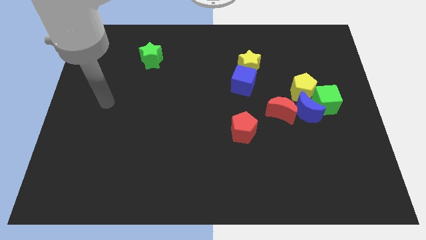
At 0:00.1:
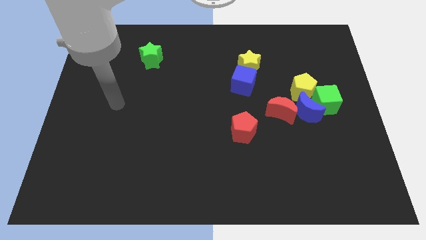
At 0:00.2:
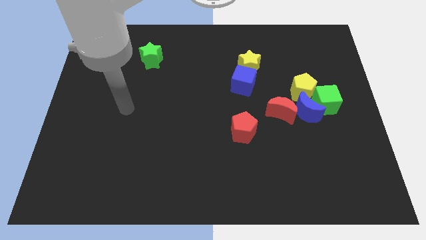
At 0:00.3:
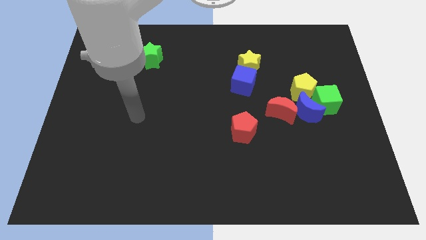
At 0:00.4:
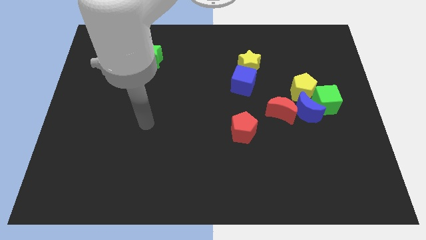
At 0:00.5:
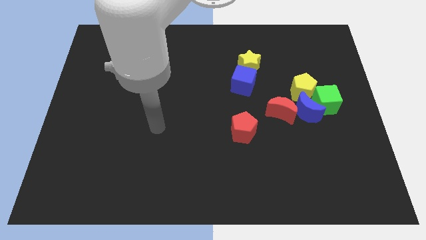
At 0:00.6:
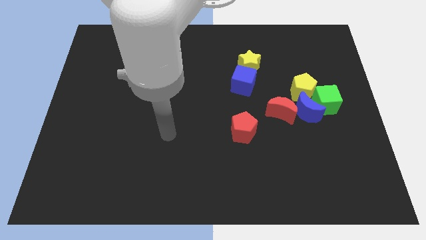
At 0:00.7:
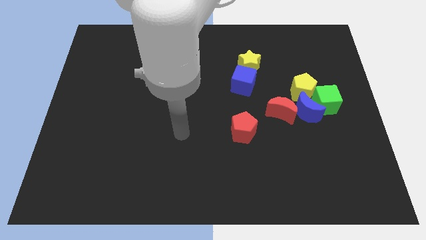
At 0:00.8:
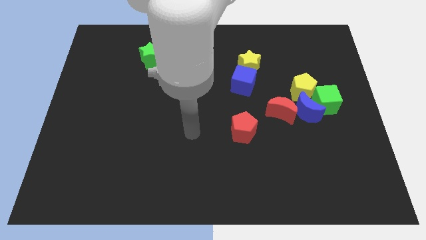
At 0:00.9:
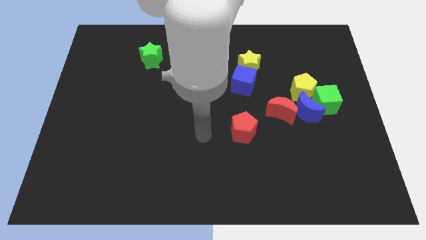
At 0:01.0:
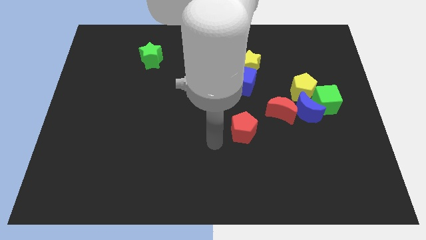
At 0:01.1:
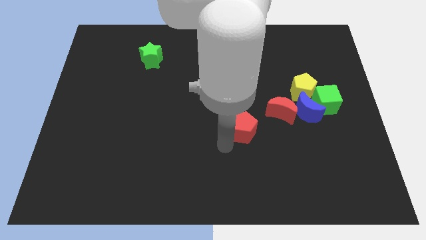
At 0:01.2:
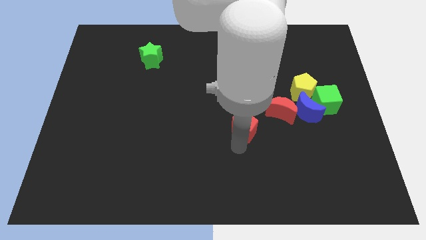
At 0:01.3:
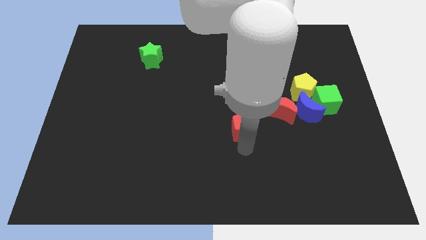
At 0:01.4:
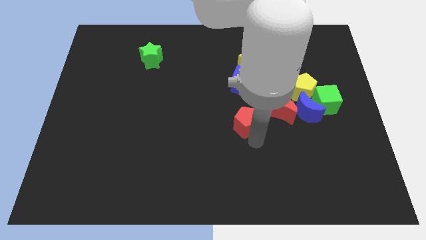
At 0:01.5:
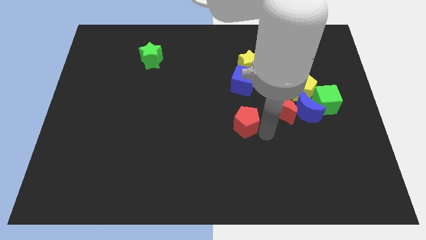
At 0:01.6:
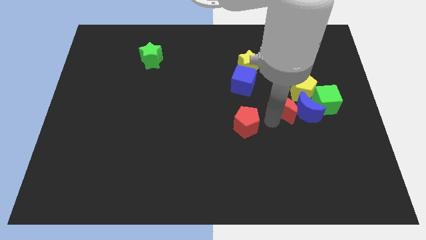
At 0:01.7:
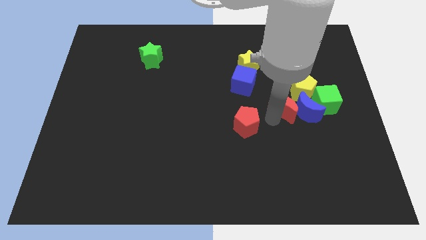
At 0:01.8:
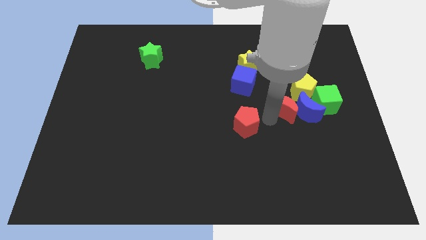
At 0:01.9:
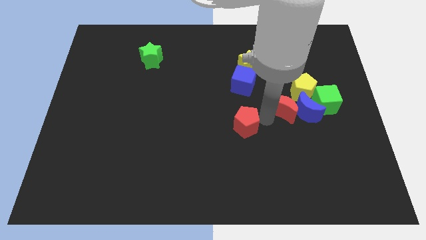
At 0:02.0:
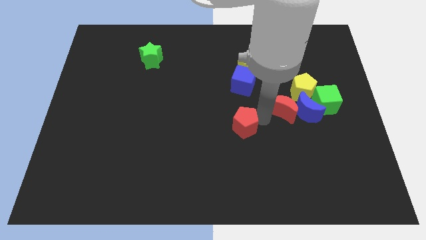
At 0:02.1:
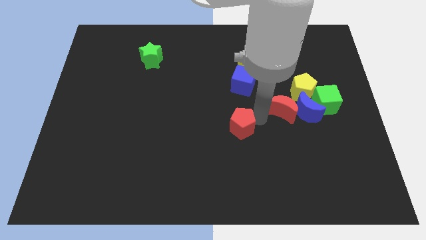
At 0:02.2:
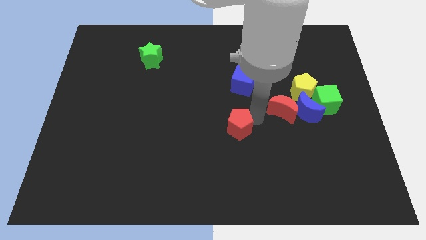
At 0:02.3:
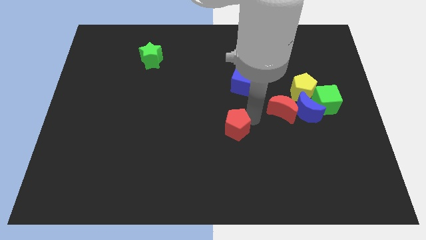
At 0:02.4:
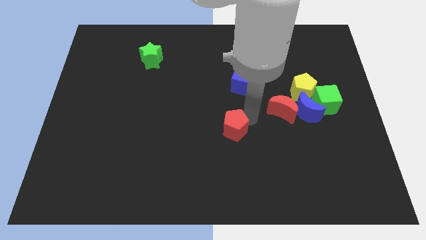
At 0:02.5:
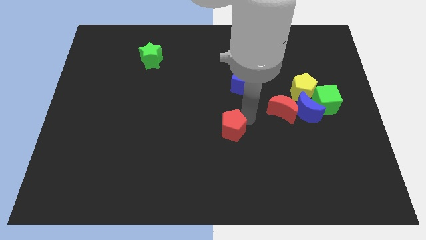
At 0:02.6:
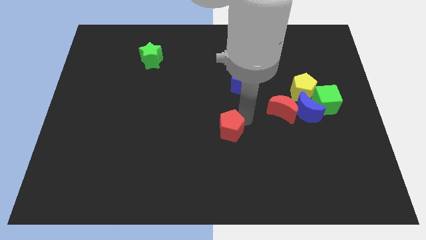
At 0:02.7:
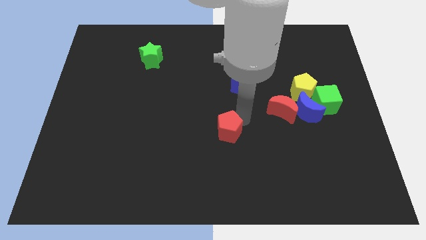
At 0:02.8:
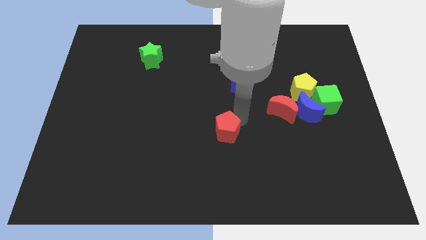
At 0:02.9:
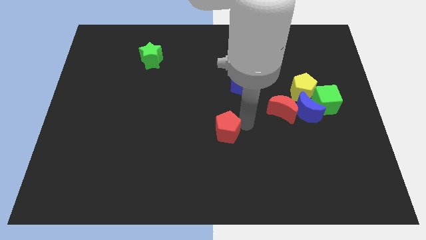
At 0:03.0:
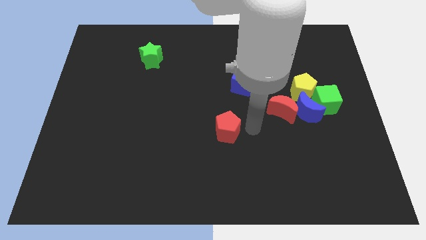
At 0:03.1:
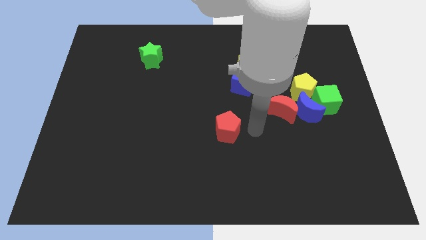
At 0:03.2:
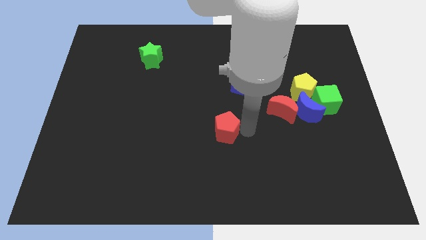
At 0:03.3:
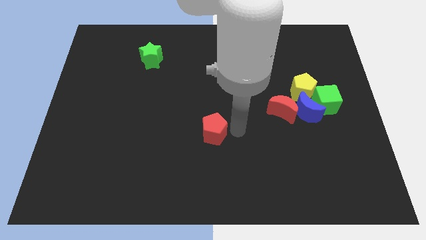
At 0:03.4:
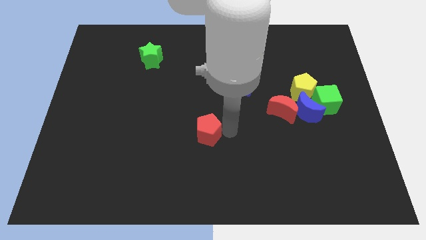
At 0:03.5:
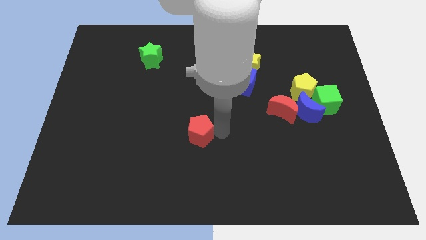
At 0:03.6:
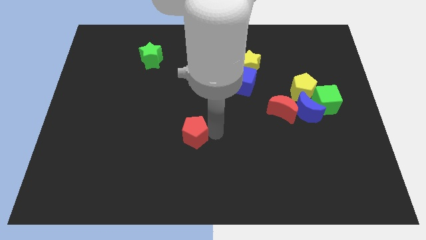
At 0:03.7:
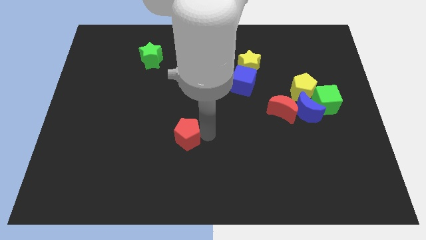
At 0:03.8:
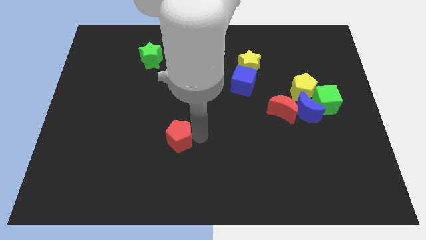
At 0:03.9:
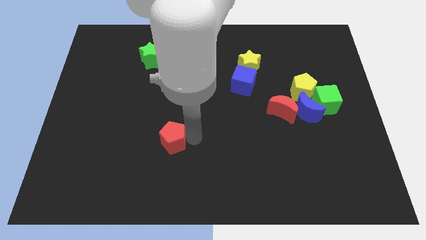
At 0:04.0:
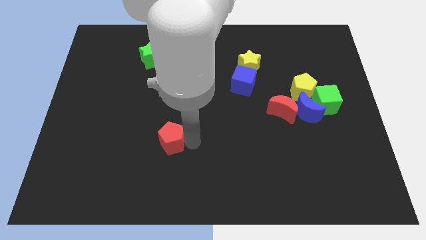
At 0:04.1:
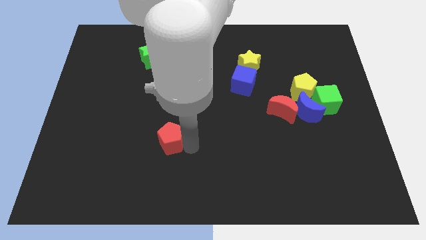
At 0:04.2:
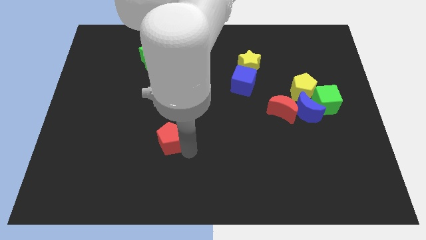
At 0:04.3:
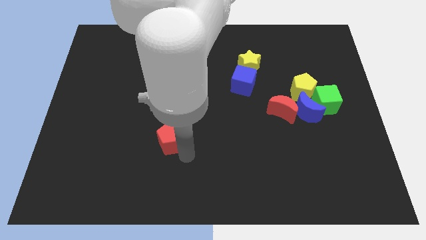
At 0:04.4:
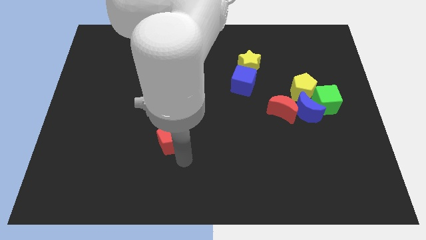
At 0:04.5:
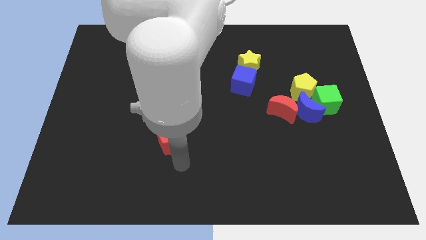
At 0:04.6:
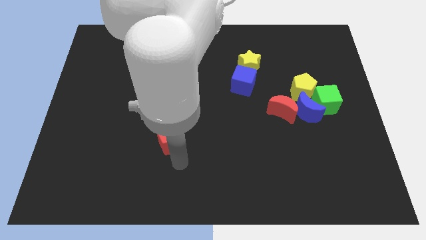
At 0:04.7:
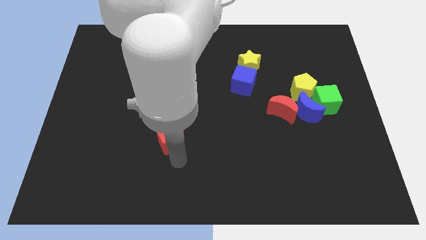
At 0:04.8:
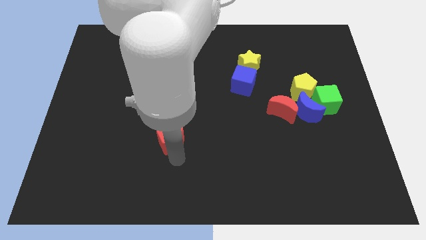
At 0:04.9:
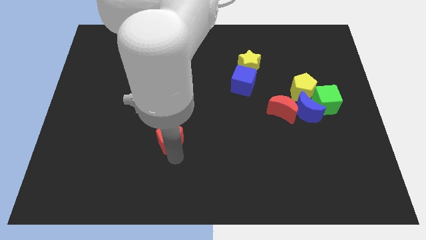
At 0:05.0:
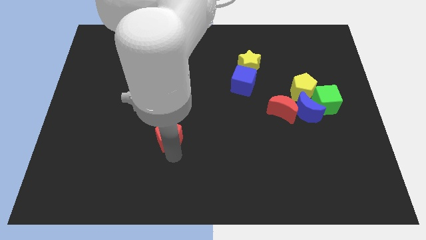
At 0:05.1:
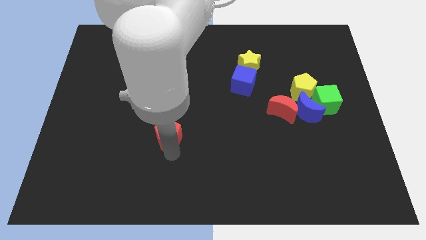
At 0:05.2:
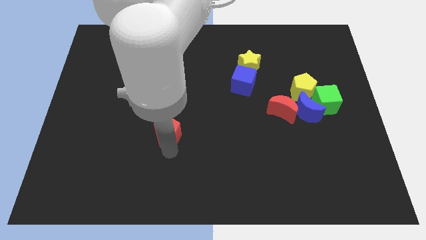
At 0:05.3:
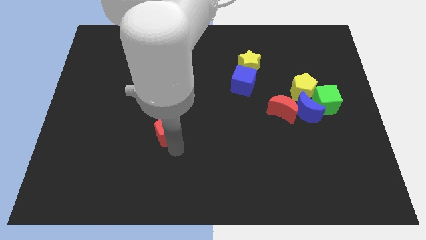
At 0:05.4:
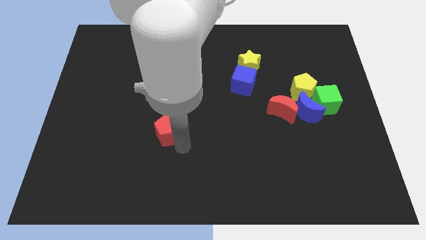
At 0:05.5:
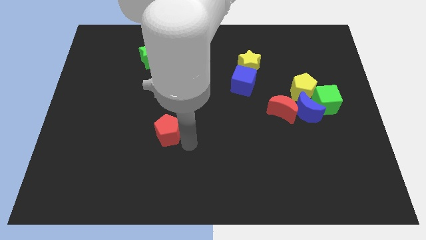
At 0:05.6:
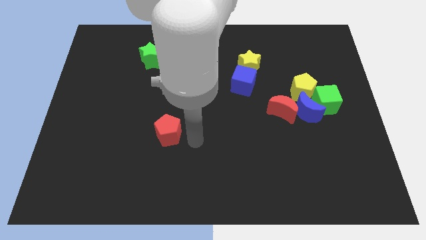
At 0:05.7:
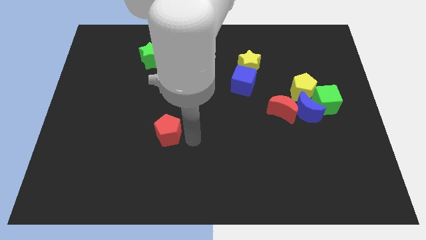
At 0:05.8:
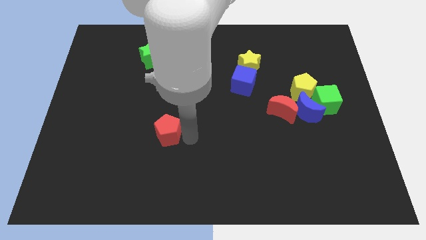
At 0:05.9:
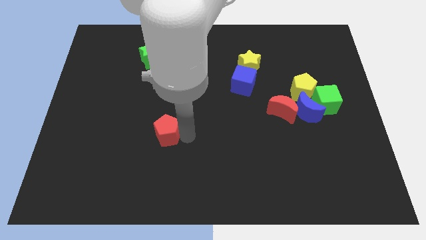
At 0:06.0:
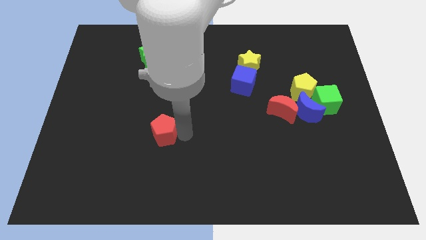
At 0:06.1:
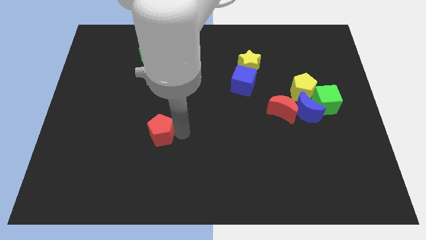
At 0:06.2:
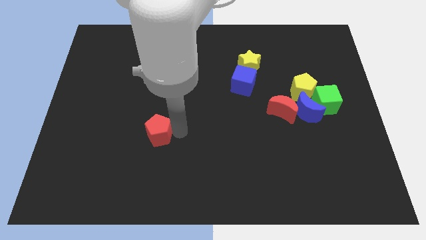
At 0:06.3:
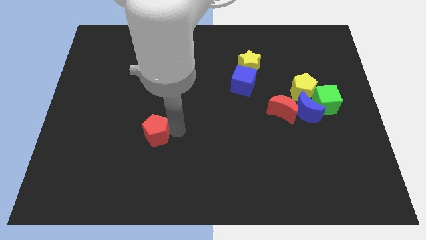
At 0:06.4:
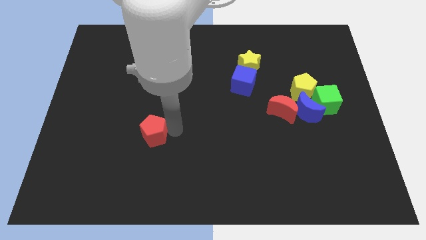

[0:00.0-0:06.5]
push the red pentagon left

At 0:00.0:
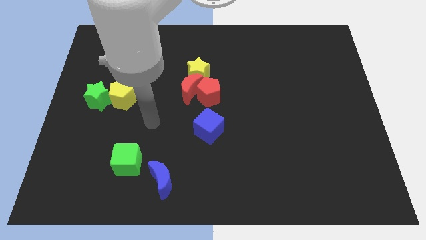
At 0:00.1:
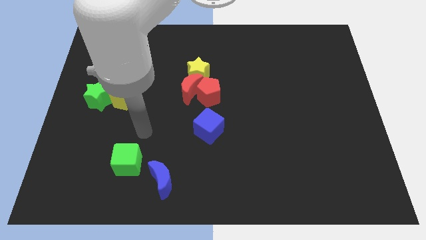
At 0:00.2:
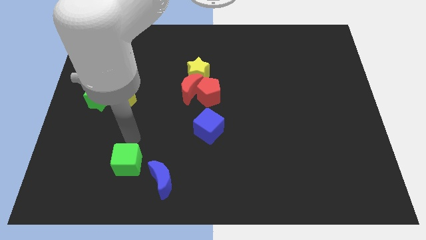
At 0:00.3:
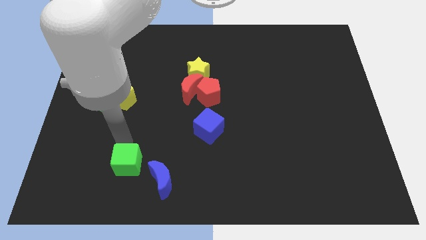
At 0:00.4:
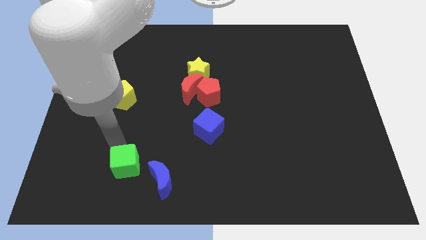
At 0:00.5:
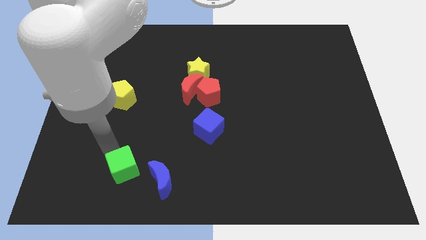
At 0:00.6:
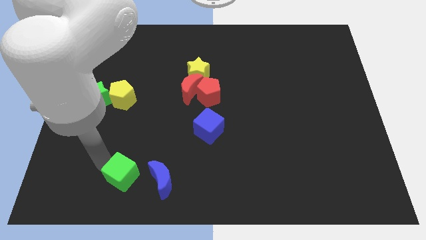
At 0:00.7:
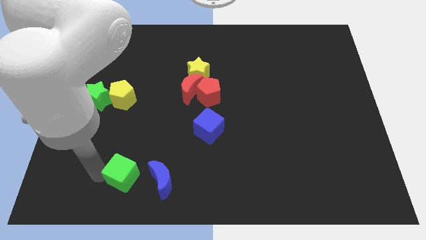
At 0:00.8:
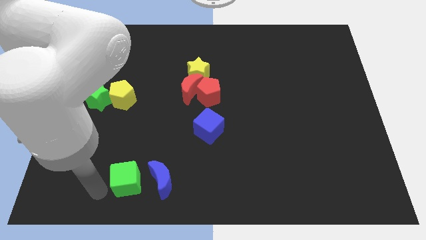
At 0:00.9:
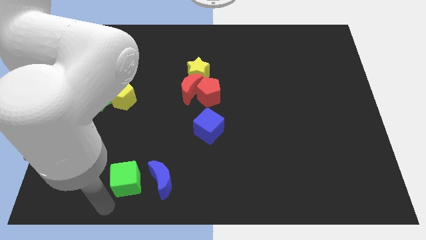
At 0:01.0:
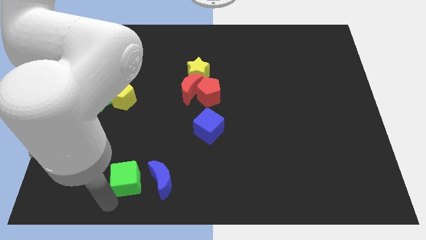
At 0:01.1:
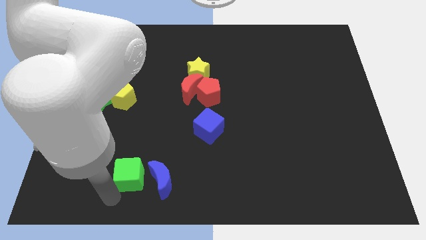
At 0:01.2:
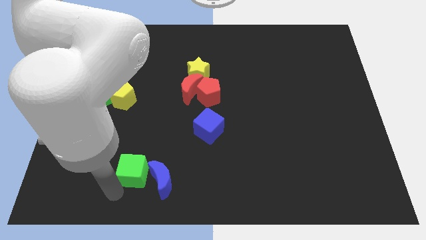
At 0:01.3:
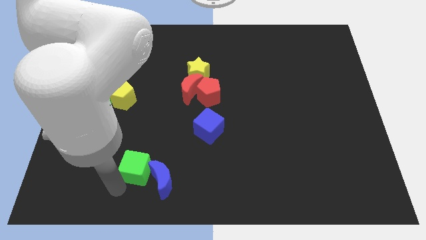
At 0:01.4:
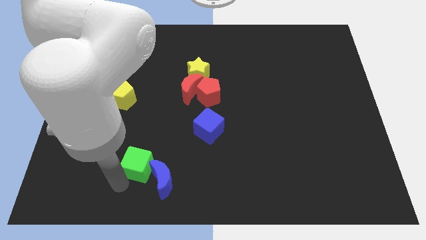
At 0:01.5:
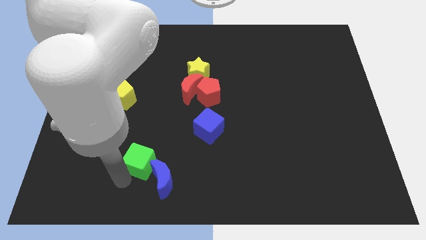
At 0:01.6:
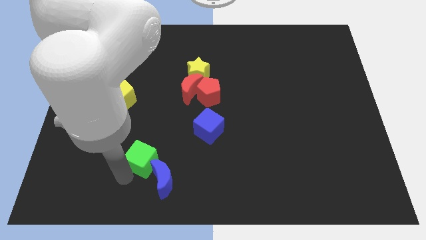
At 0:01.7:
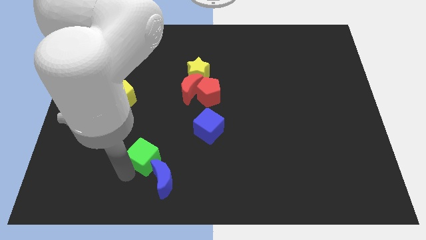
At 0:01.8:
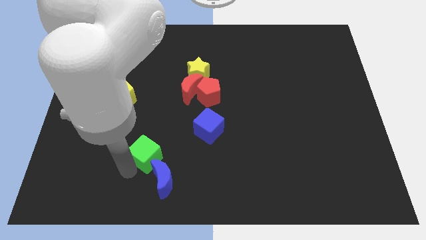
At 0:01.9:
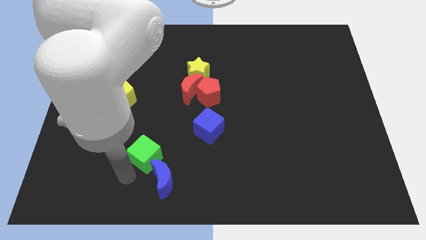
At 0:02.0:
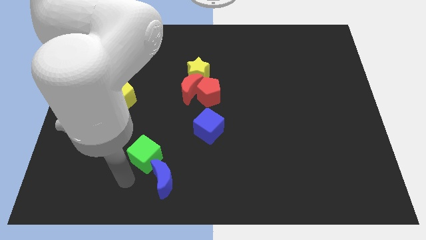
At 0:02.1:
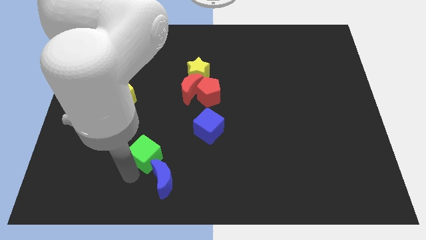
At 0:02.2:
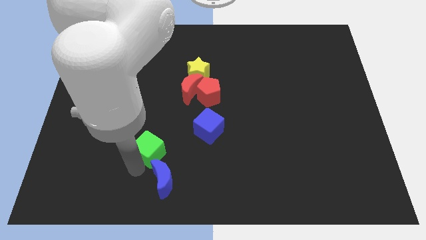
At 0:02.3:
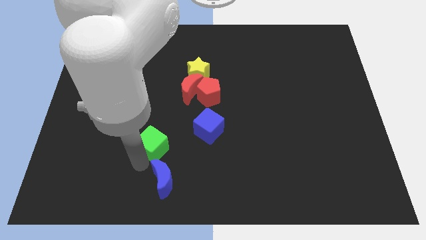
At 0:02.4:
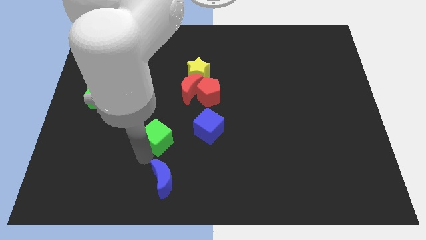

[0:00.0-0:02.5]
slightly push the green cube up and right
